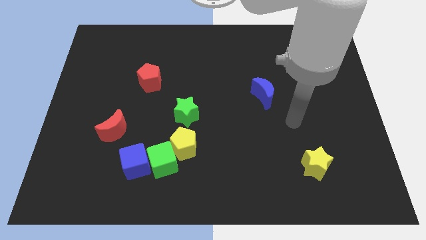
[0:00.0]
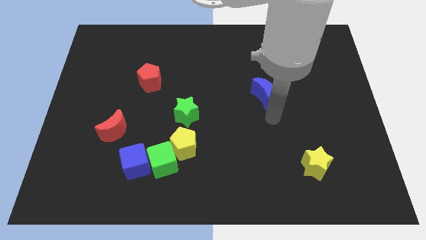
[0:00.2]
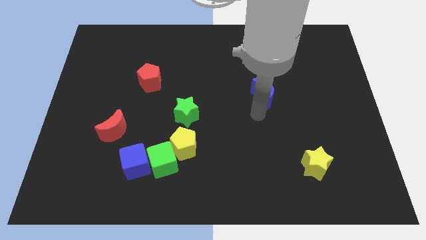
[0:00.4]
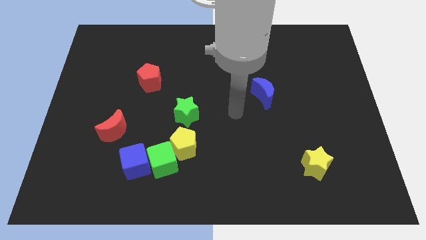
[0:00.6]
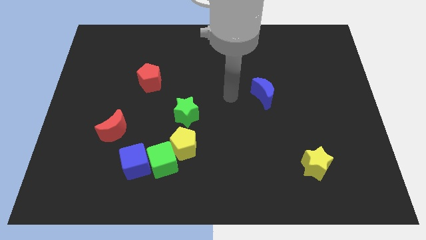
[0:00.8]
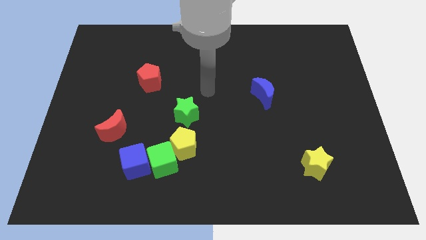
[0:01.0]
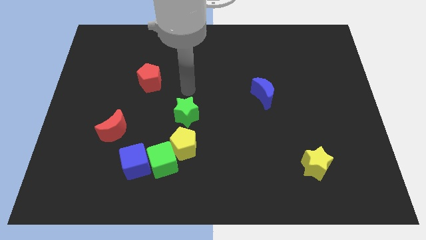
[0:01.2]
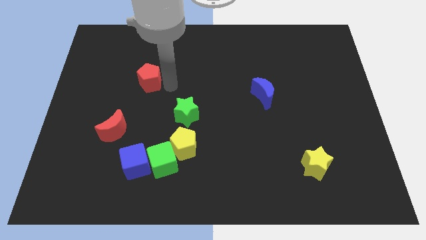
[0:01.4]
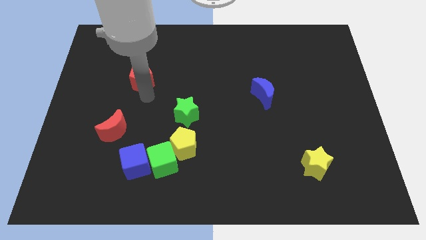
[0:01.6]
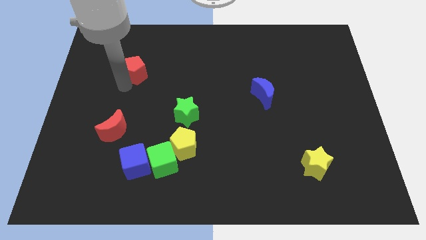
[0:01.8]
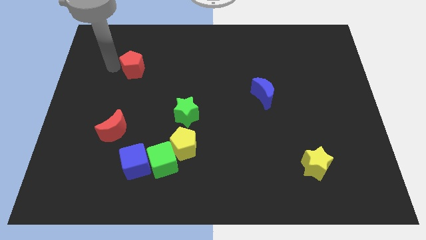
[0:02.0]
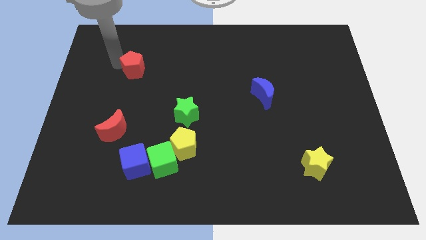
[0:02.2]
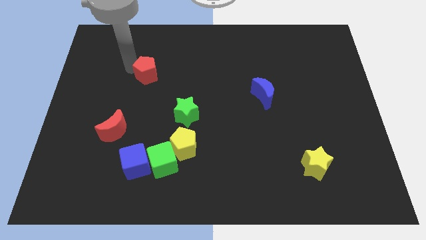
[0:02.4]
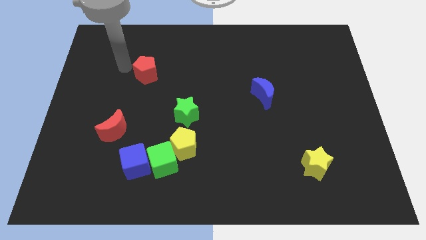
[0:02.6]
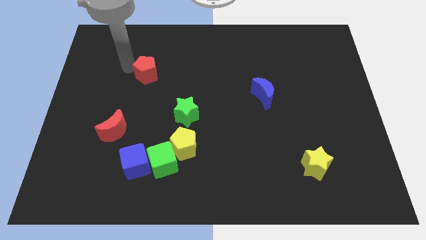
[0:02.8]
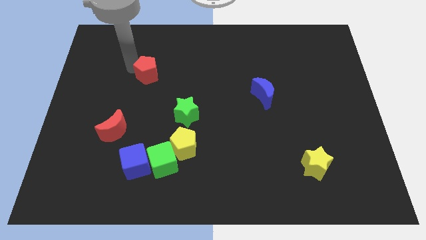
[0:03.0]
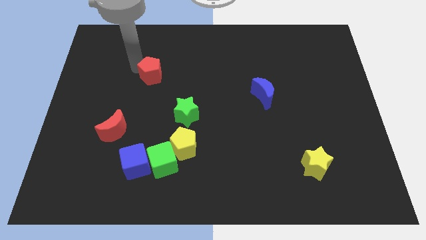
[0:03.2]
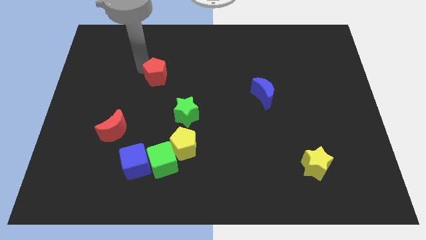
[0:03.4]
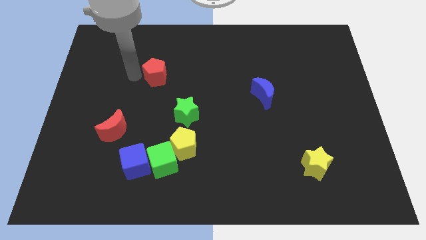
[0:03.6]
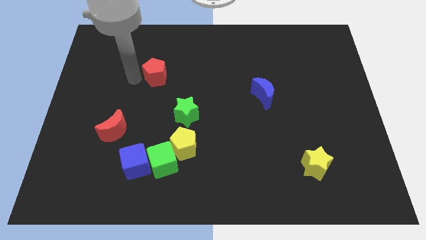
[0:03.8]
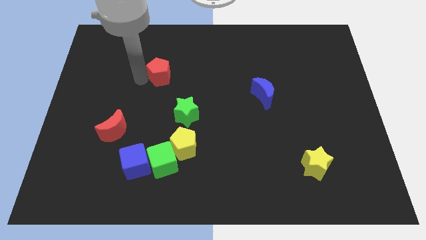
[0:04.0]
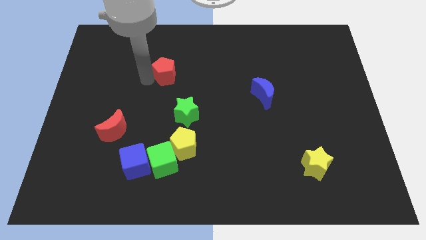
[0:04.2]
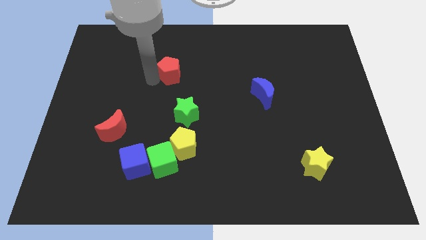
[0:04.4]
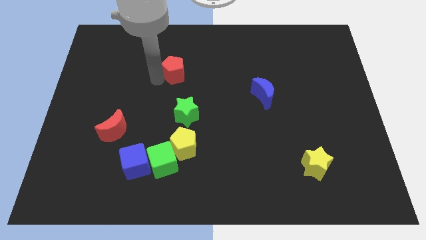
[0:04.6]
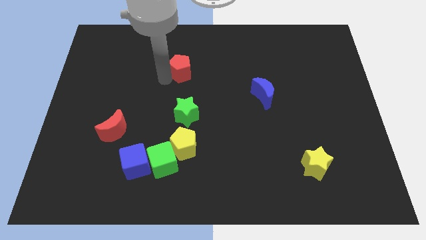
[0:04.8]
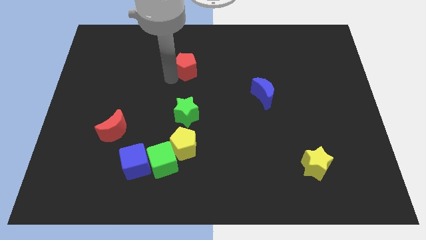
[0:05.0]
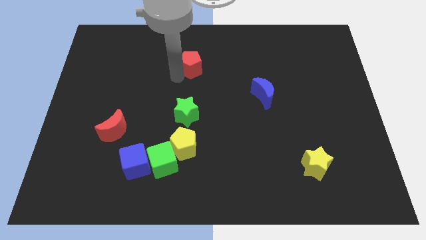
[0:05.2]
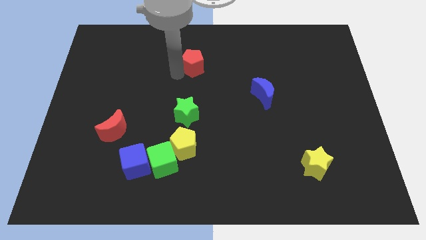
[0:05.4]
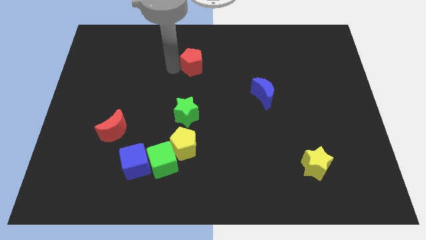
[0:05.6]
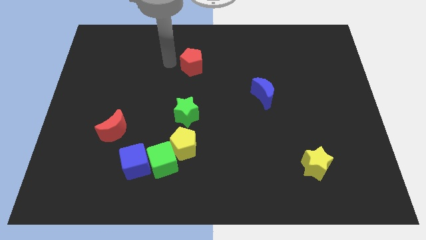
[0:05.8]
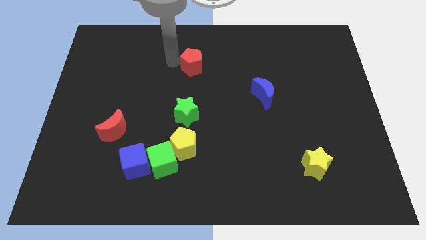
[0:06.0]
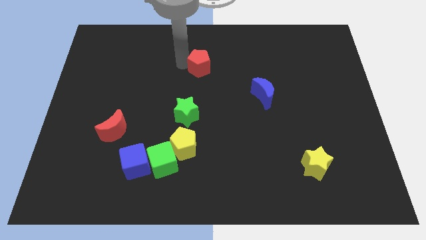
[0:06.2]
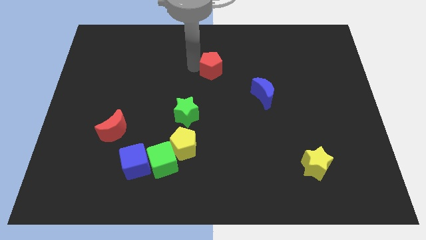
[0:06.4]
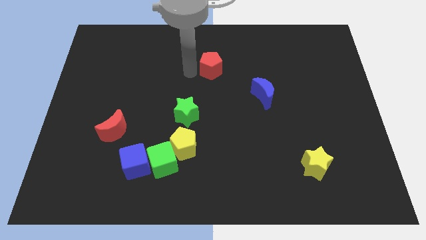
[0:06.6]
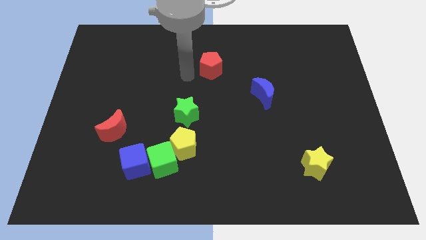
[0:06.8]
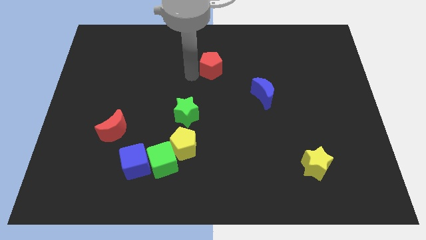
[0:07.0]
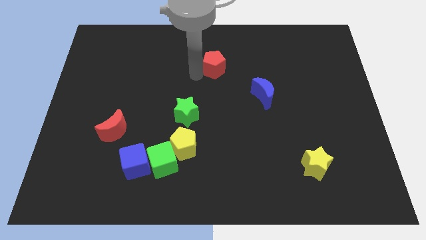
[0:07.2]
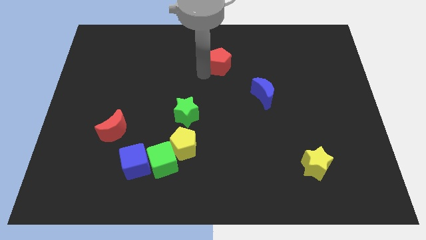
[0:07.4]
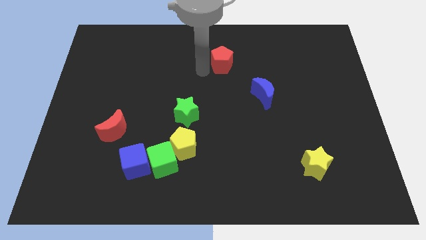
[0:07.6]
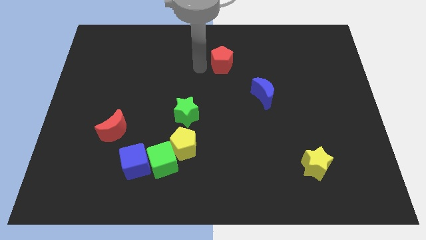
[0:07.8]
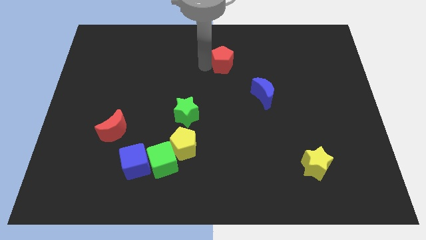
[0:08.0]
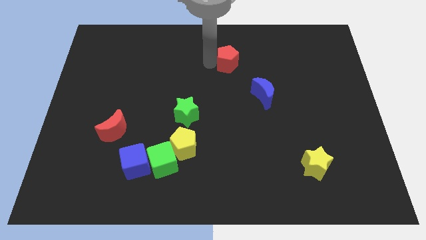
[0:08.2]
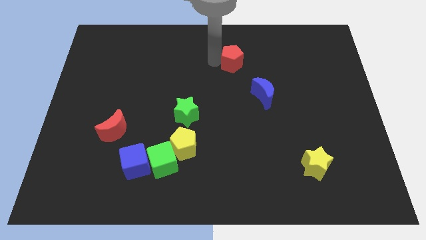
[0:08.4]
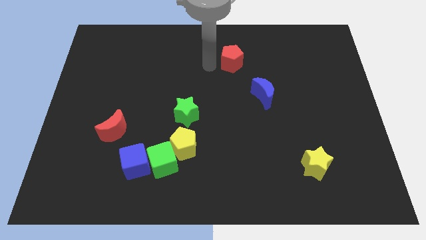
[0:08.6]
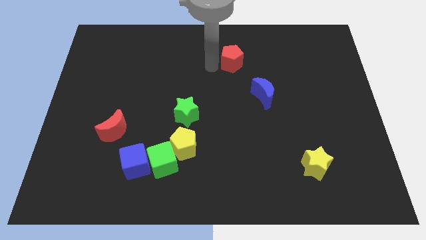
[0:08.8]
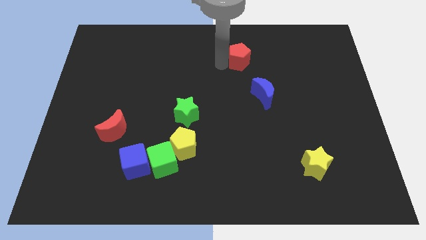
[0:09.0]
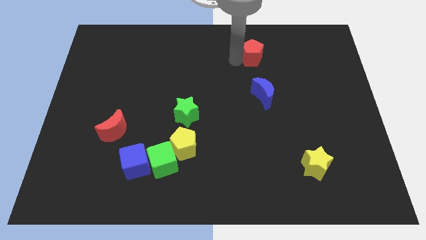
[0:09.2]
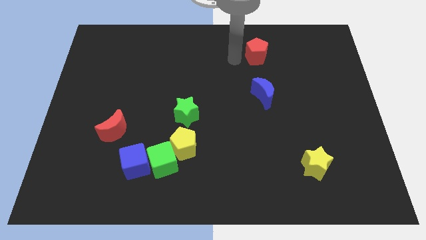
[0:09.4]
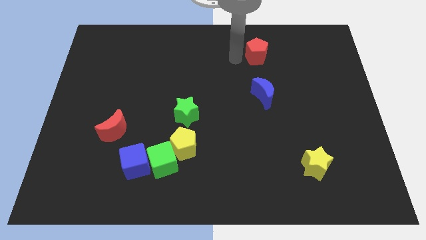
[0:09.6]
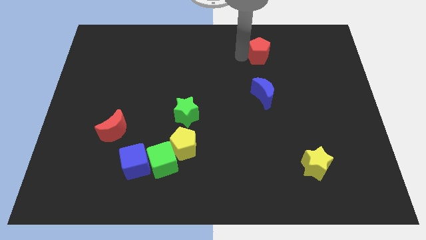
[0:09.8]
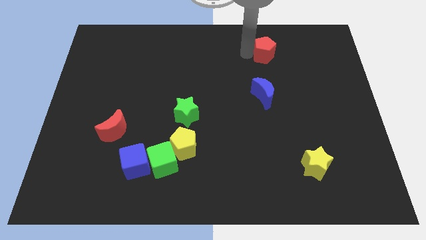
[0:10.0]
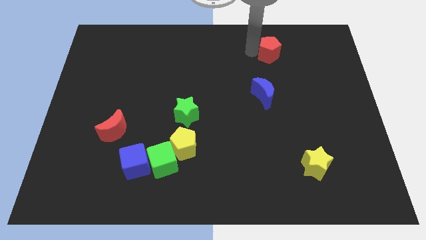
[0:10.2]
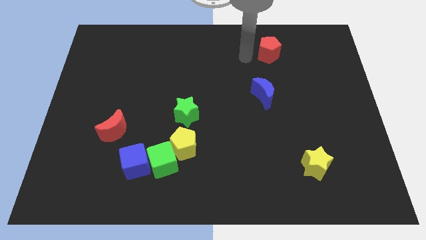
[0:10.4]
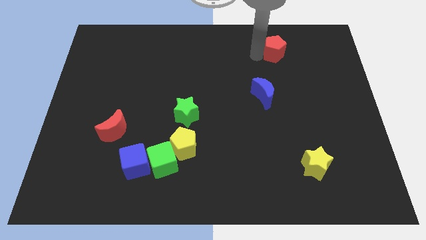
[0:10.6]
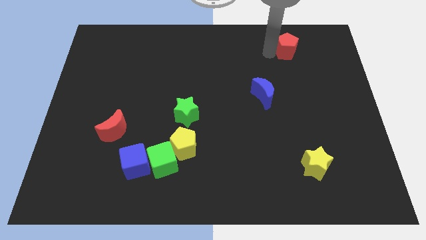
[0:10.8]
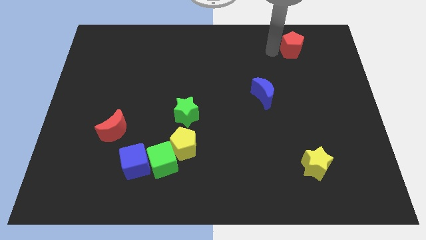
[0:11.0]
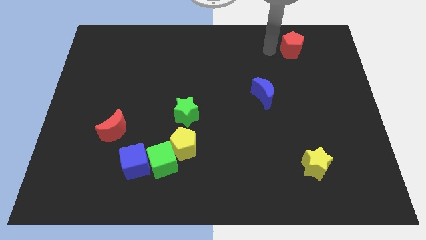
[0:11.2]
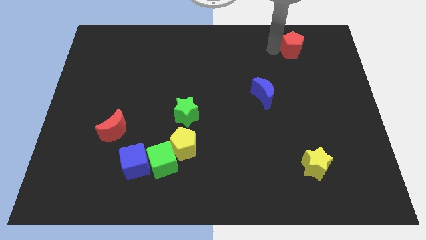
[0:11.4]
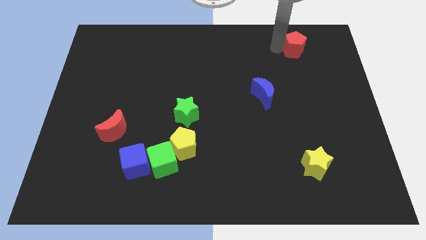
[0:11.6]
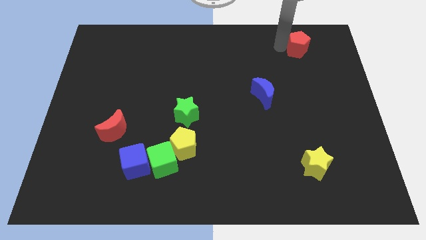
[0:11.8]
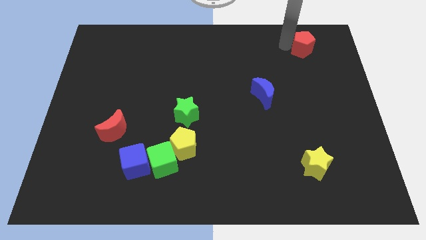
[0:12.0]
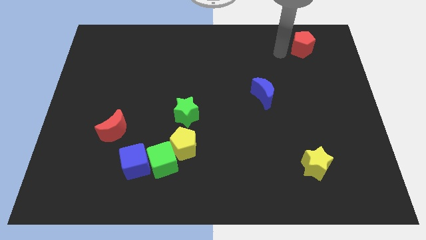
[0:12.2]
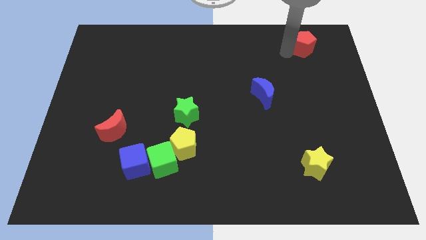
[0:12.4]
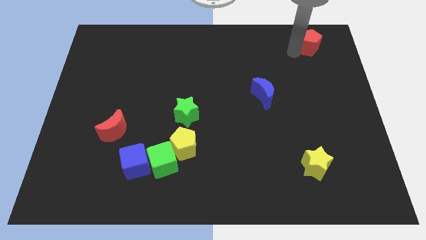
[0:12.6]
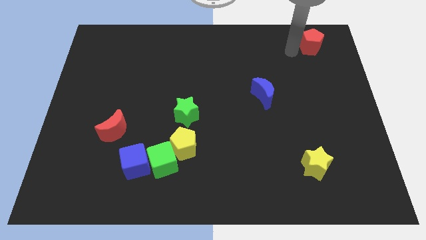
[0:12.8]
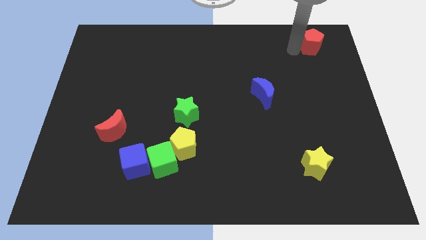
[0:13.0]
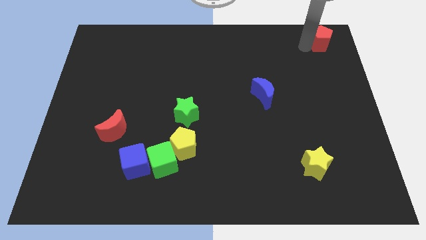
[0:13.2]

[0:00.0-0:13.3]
push the red pentagon to the upper right corner
